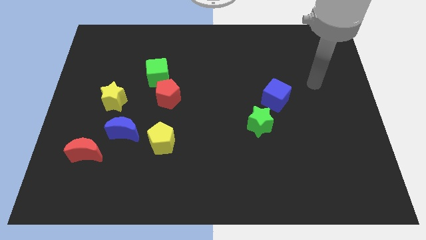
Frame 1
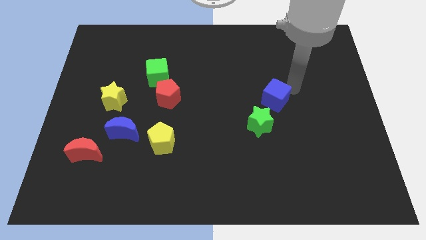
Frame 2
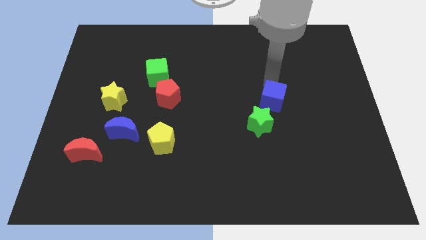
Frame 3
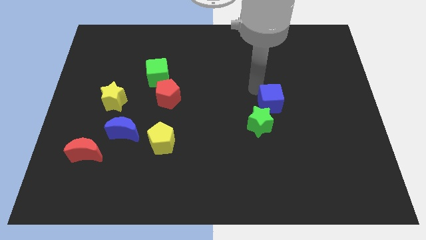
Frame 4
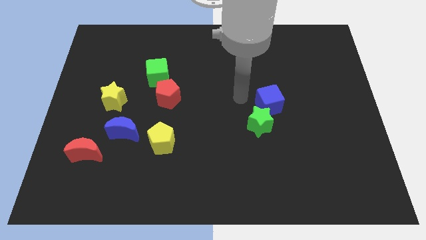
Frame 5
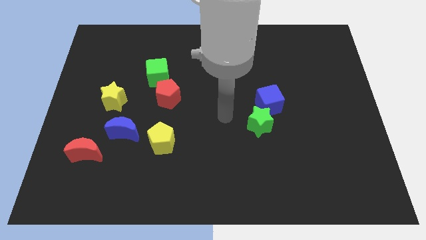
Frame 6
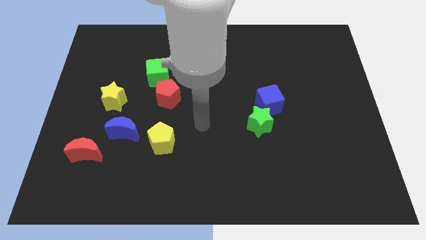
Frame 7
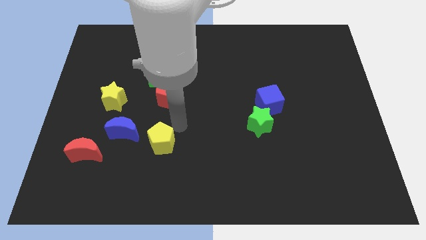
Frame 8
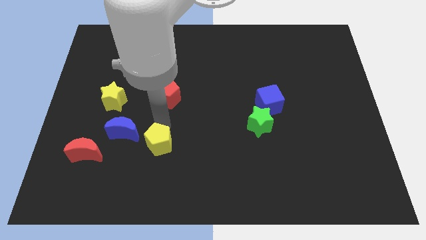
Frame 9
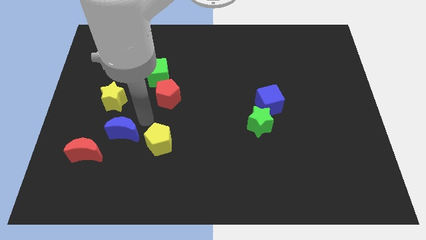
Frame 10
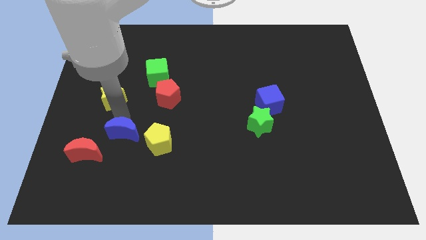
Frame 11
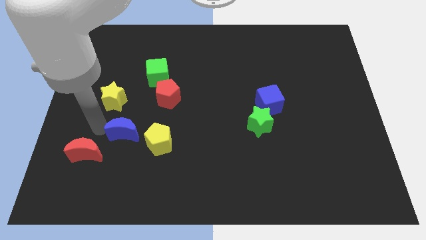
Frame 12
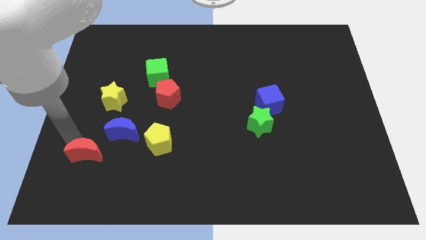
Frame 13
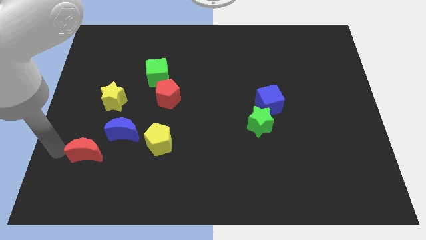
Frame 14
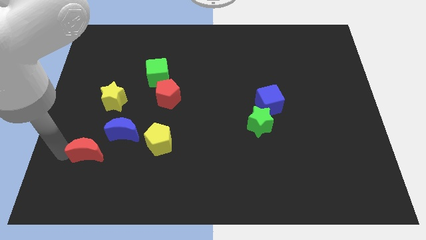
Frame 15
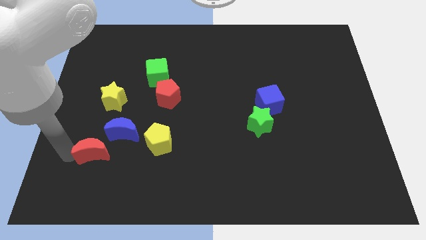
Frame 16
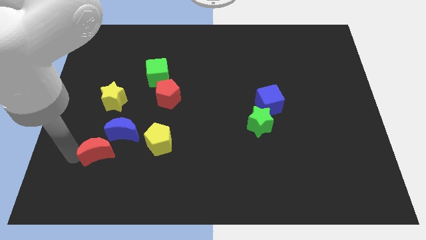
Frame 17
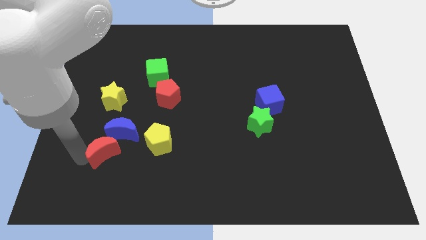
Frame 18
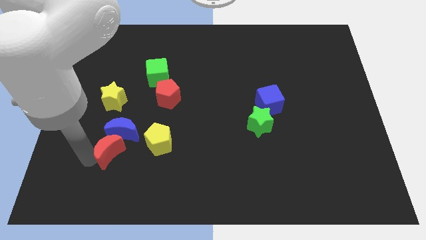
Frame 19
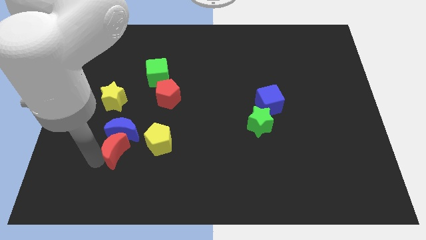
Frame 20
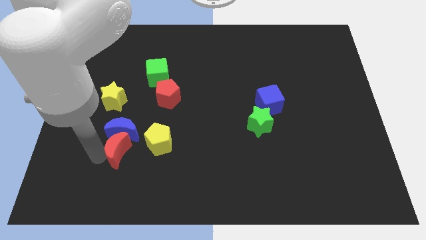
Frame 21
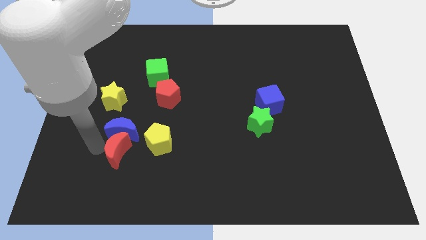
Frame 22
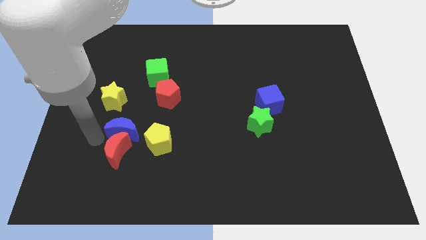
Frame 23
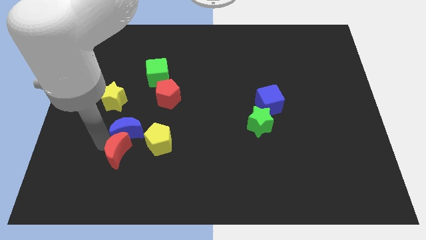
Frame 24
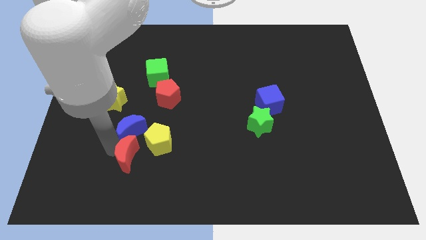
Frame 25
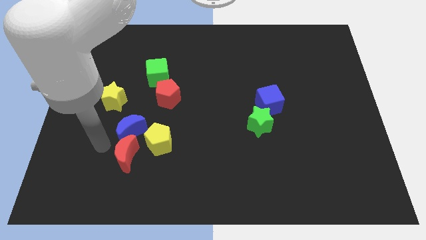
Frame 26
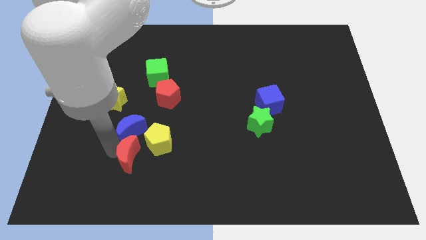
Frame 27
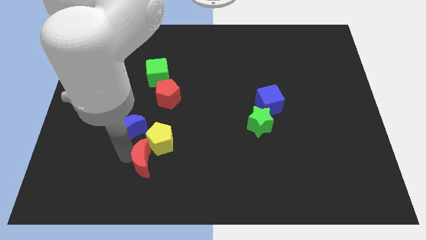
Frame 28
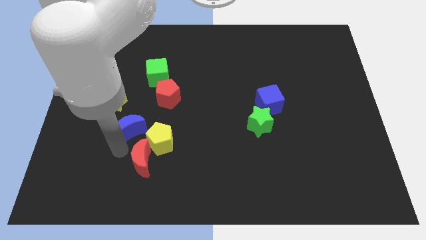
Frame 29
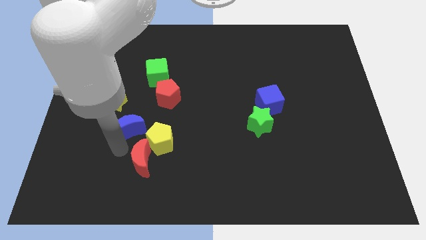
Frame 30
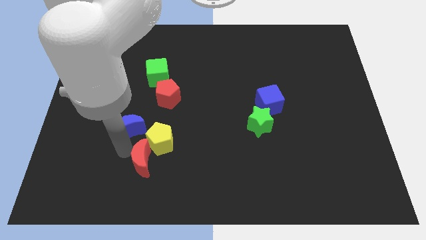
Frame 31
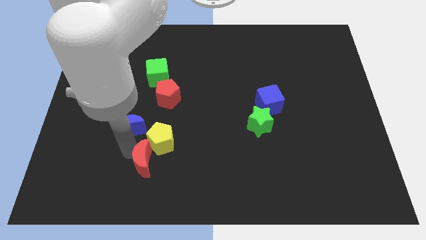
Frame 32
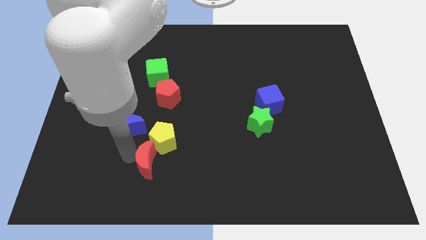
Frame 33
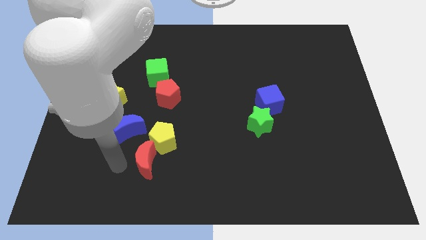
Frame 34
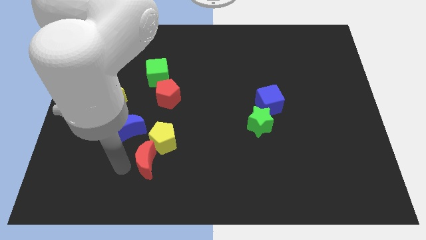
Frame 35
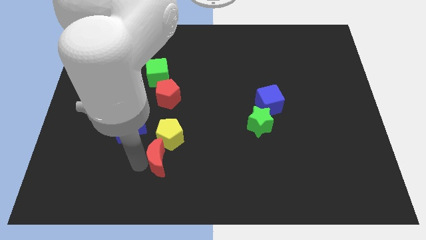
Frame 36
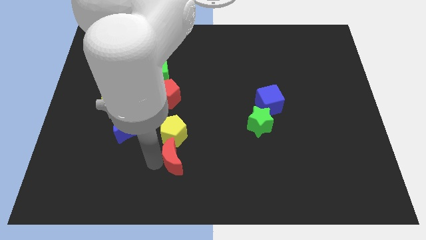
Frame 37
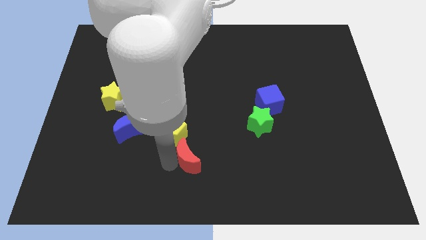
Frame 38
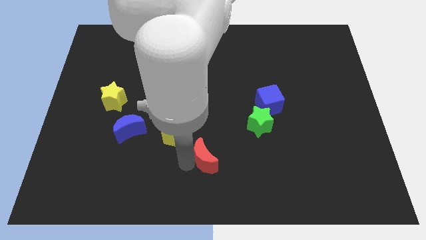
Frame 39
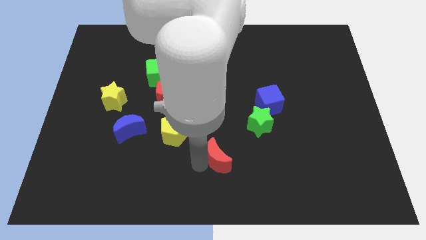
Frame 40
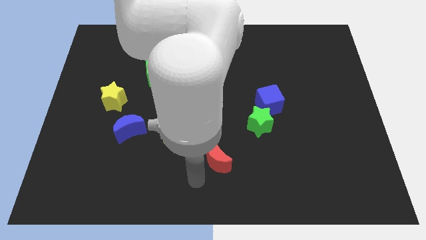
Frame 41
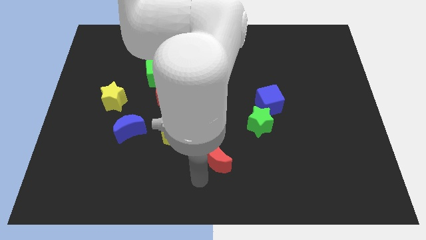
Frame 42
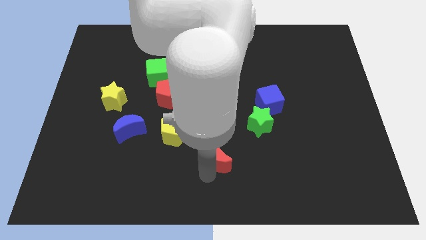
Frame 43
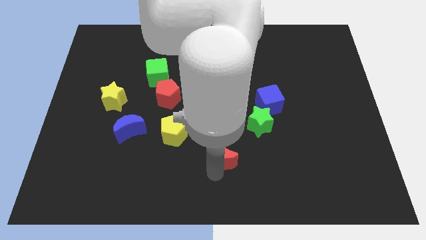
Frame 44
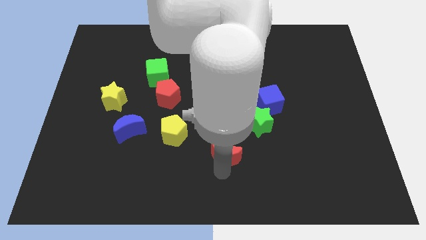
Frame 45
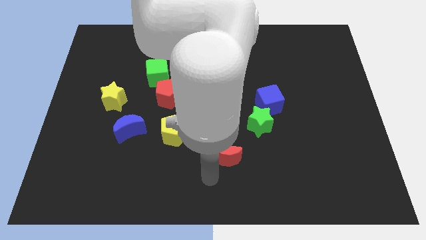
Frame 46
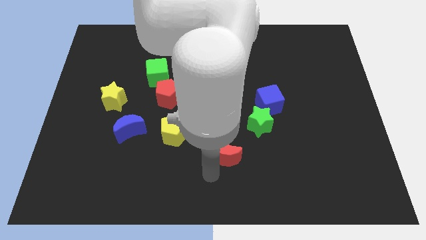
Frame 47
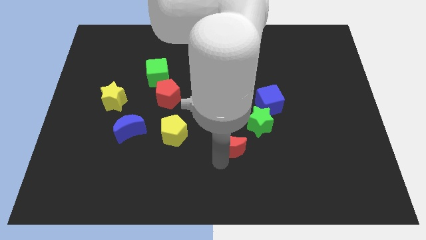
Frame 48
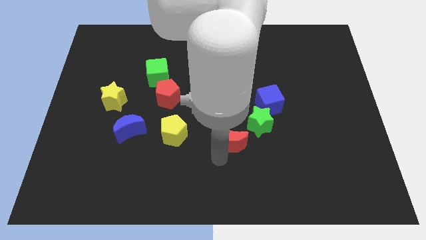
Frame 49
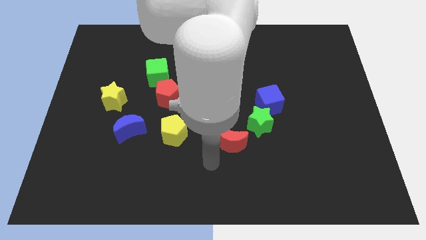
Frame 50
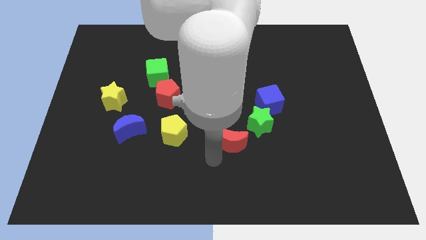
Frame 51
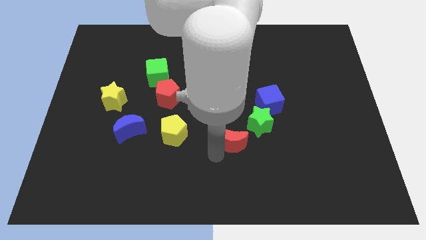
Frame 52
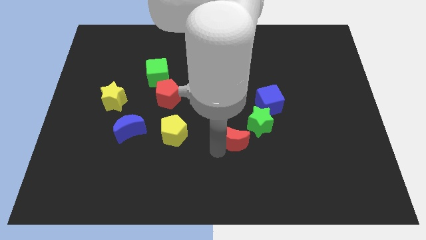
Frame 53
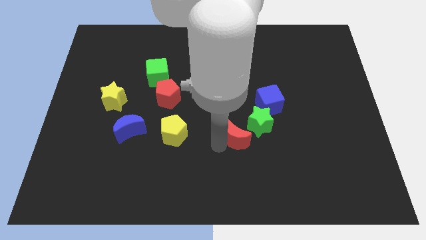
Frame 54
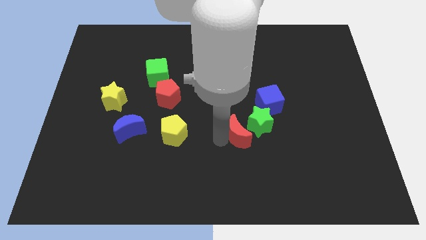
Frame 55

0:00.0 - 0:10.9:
move the red moon close to the green star

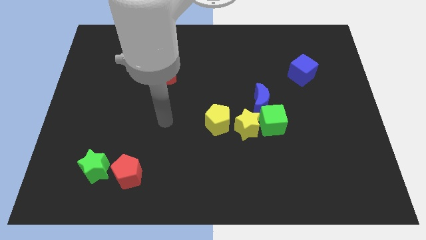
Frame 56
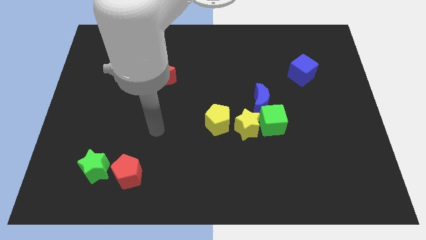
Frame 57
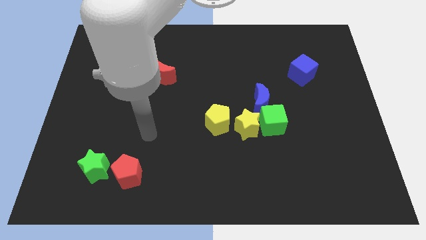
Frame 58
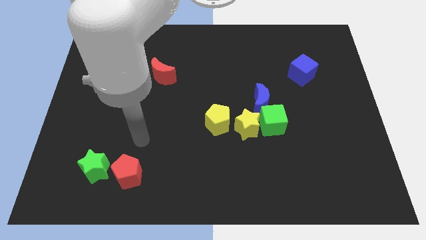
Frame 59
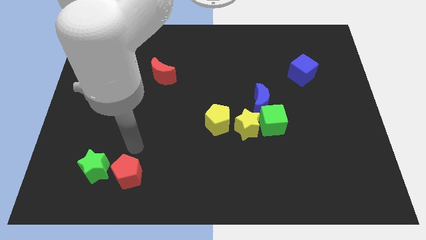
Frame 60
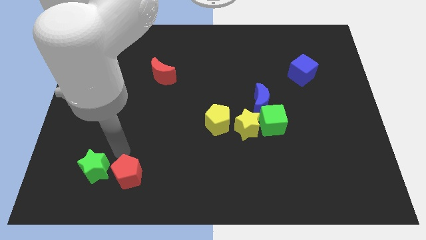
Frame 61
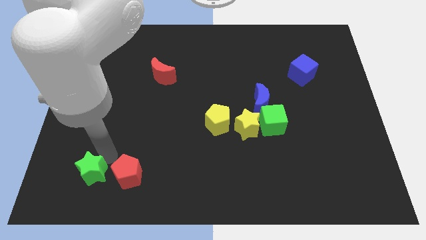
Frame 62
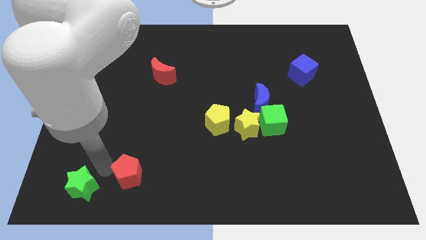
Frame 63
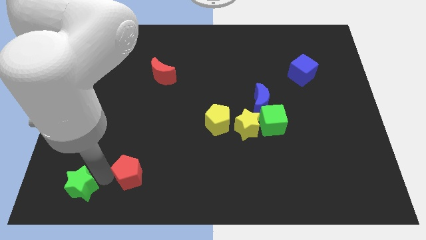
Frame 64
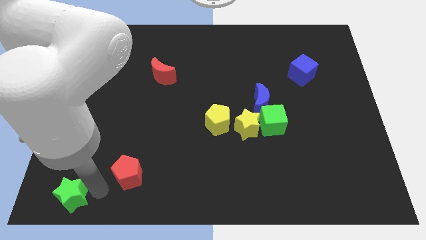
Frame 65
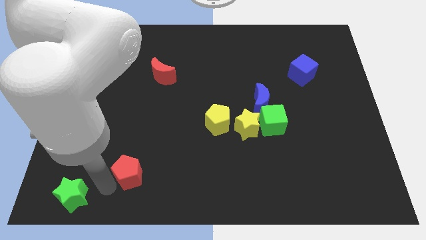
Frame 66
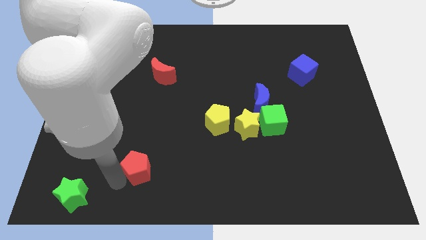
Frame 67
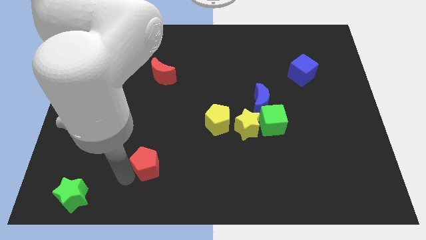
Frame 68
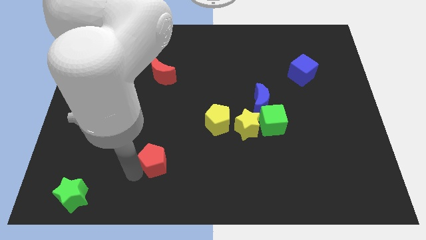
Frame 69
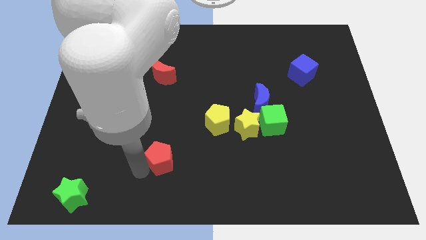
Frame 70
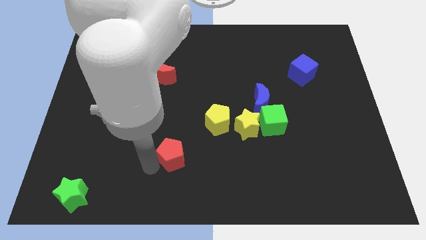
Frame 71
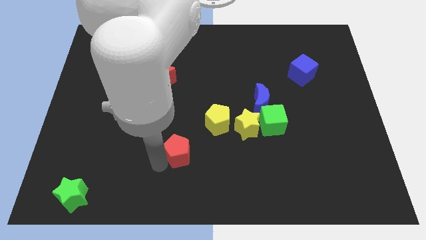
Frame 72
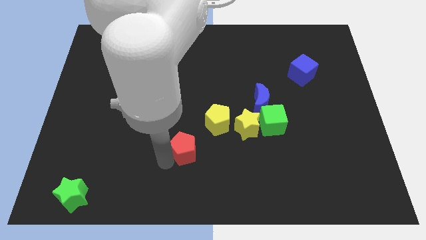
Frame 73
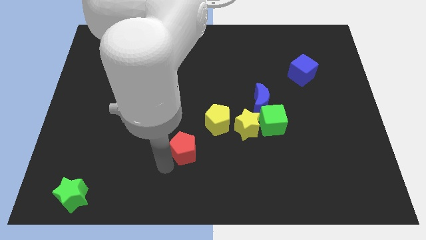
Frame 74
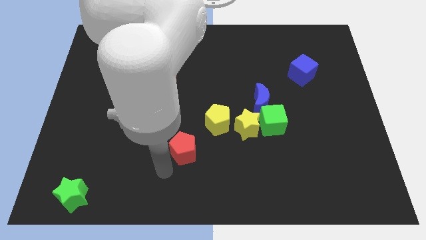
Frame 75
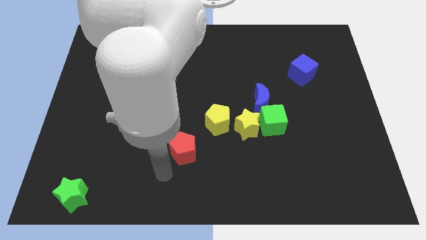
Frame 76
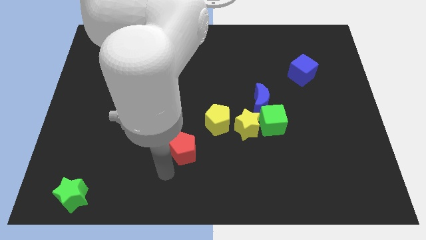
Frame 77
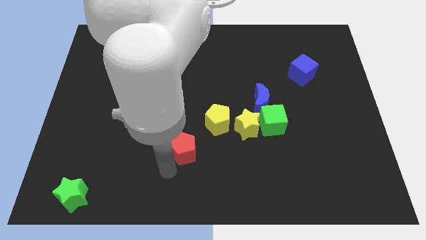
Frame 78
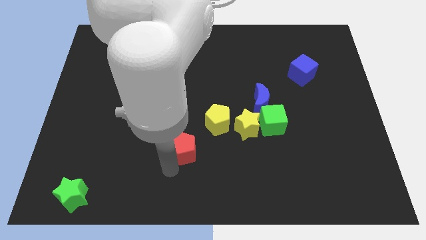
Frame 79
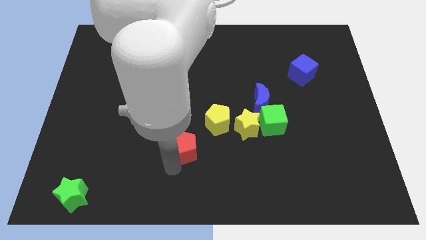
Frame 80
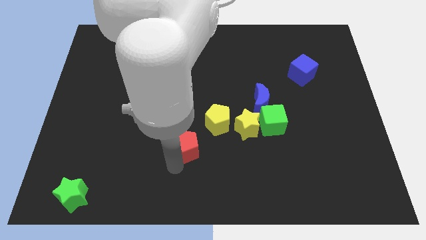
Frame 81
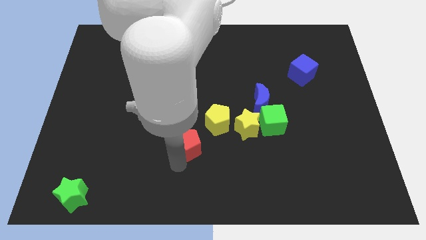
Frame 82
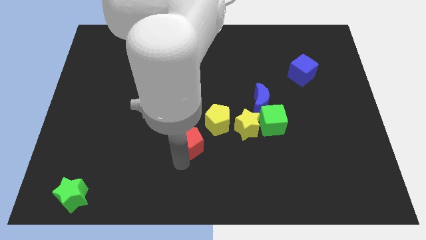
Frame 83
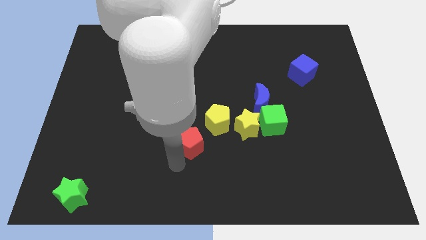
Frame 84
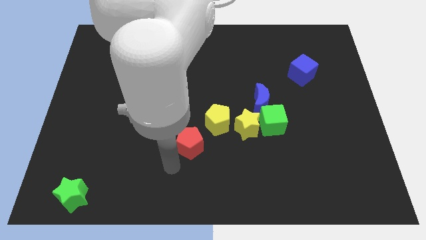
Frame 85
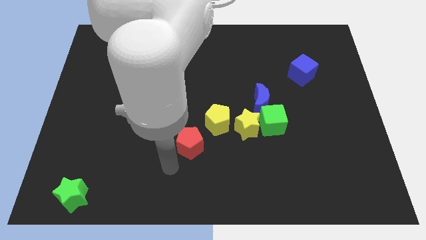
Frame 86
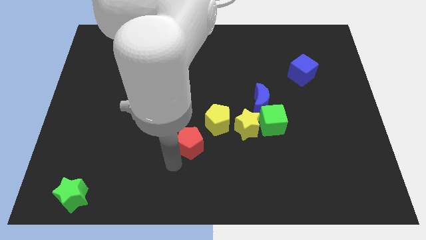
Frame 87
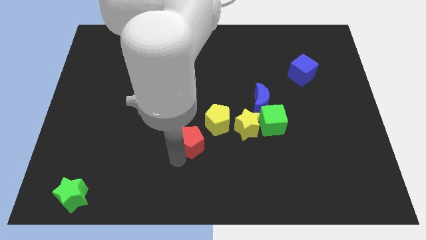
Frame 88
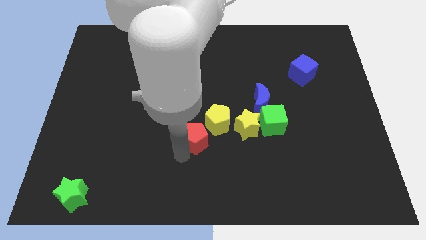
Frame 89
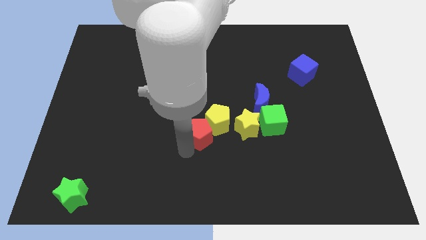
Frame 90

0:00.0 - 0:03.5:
push the red pentagon towards the yellow pentagon
